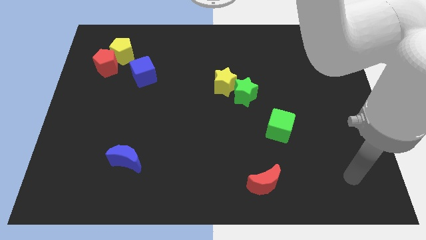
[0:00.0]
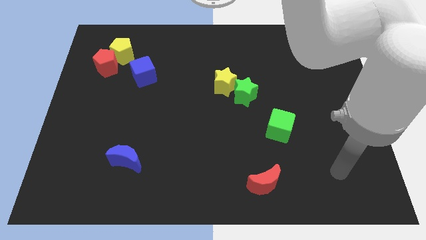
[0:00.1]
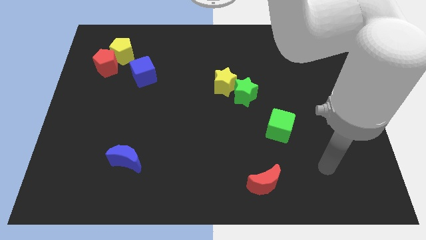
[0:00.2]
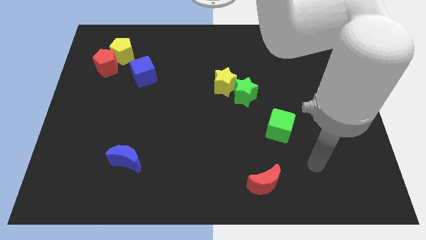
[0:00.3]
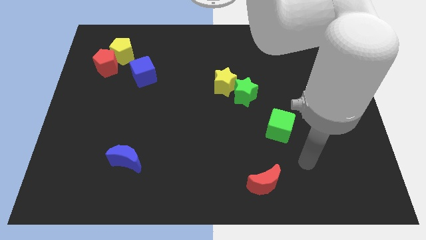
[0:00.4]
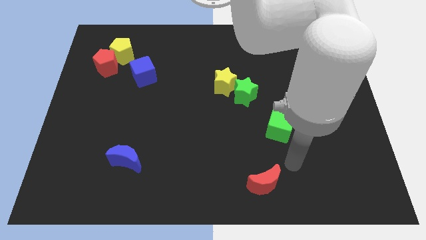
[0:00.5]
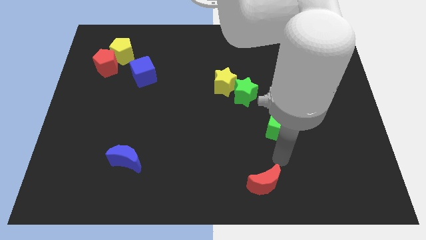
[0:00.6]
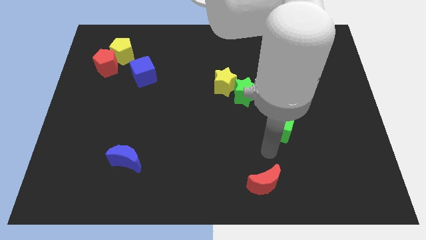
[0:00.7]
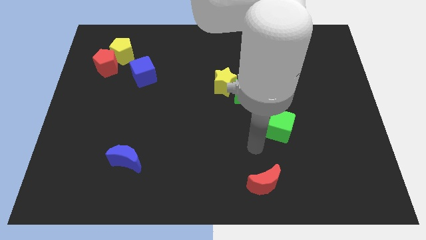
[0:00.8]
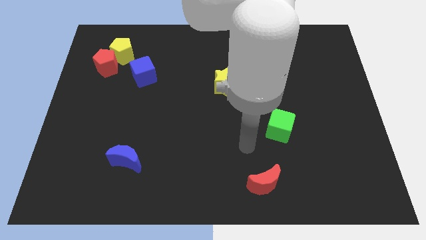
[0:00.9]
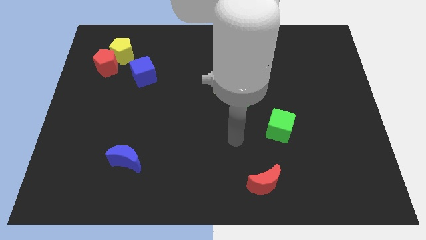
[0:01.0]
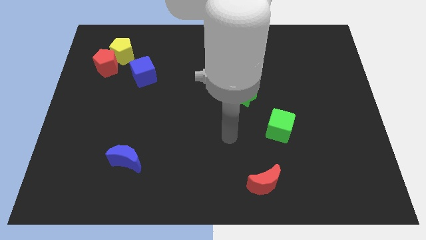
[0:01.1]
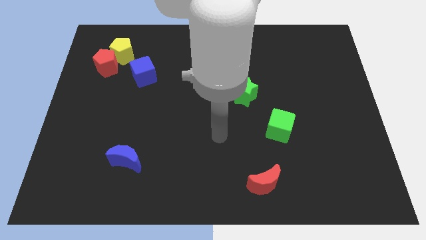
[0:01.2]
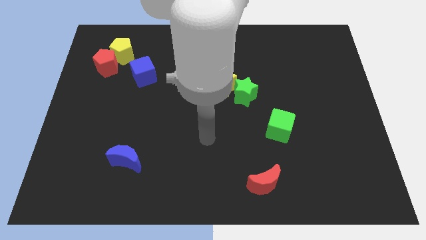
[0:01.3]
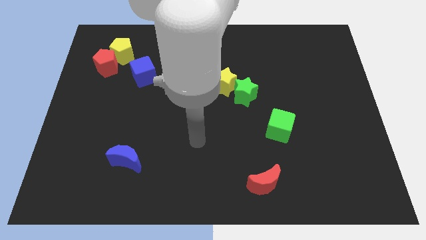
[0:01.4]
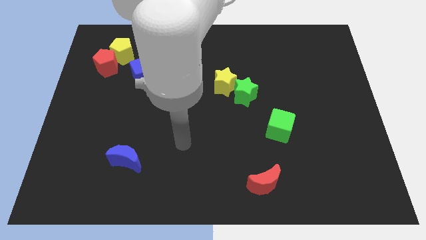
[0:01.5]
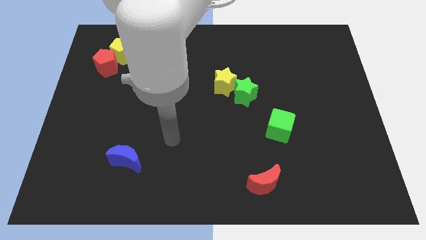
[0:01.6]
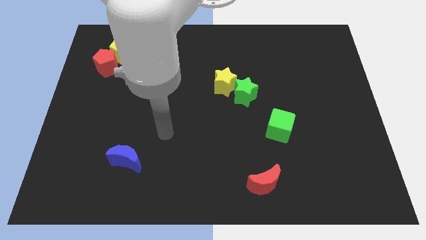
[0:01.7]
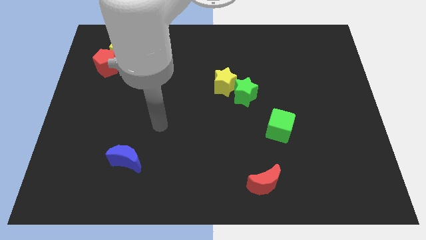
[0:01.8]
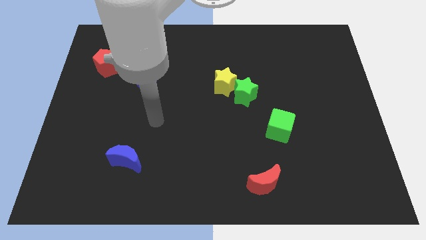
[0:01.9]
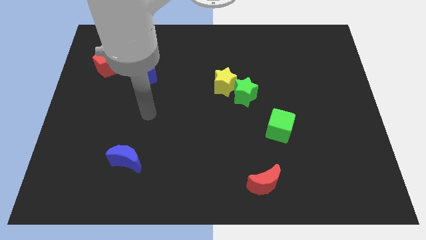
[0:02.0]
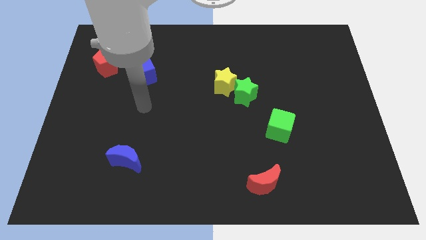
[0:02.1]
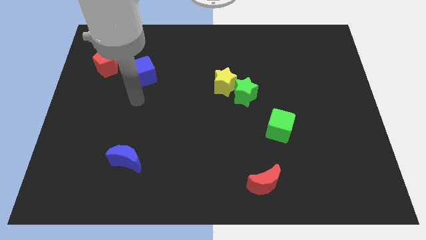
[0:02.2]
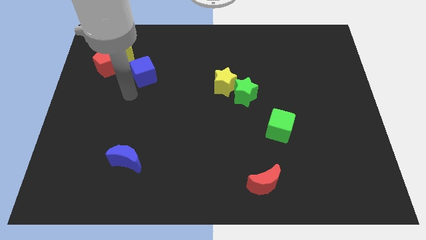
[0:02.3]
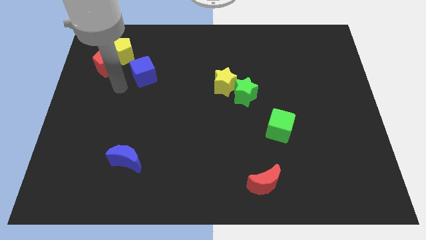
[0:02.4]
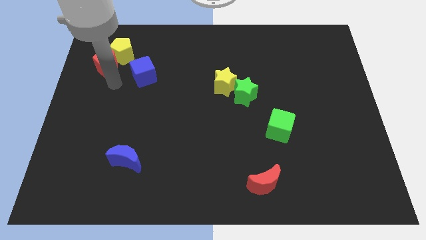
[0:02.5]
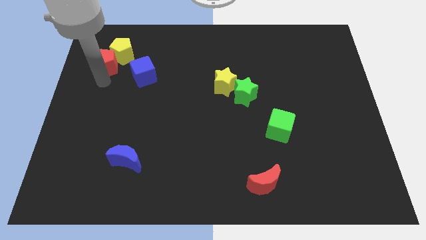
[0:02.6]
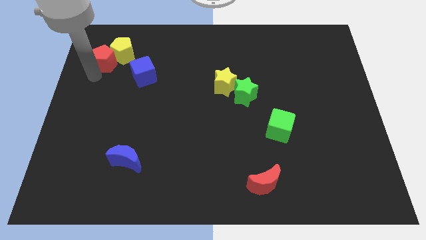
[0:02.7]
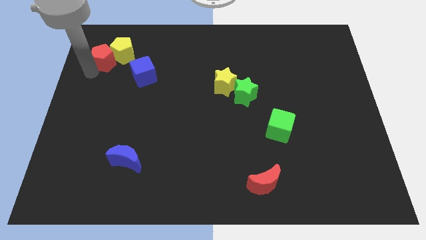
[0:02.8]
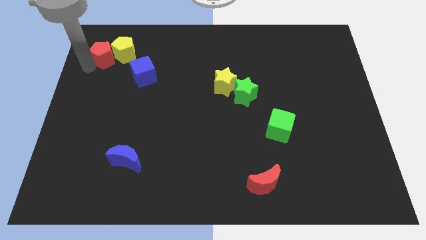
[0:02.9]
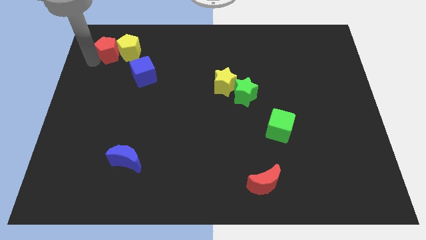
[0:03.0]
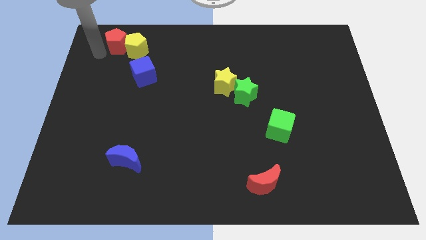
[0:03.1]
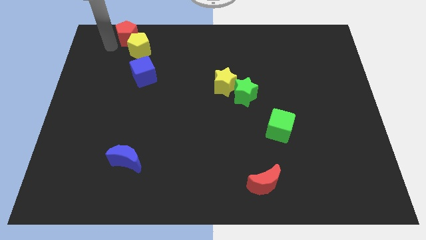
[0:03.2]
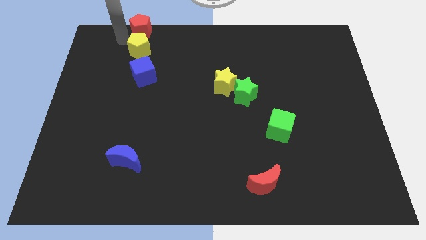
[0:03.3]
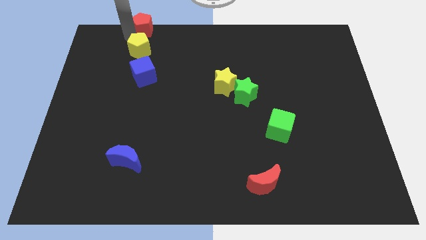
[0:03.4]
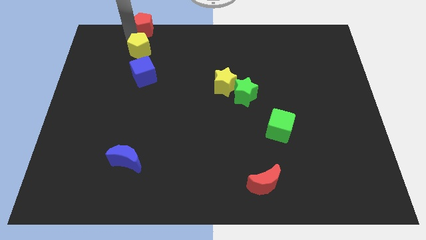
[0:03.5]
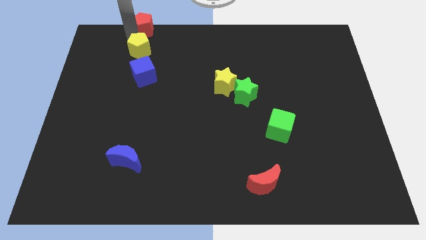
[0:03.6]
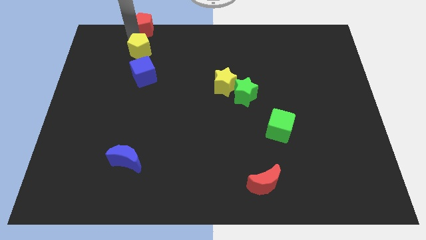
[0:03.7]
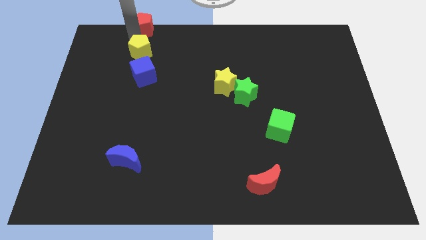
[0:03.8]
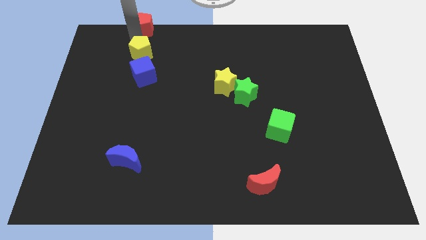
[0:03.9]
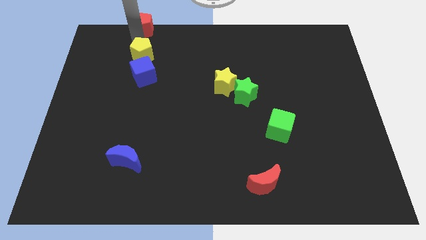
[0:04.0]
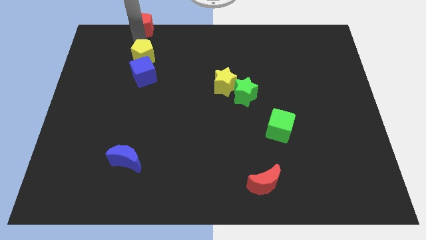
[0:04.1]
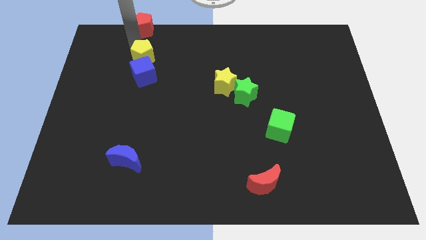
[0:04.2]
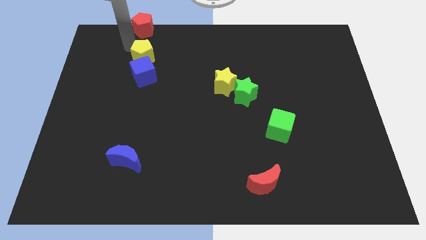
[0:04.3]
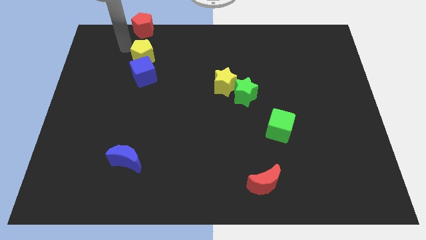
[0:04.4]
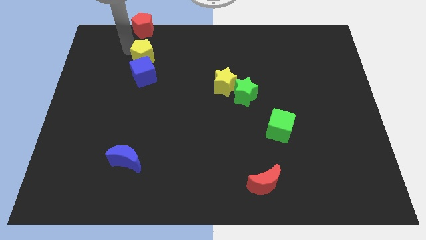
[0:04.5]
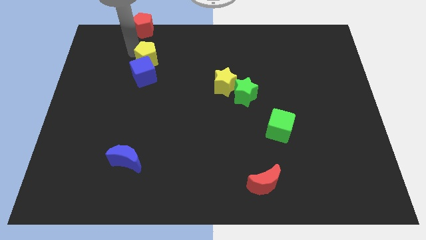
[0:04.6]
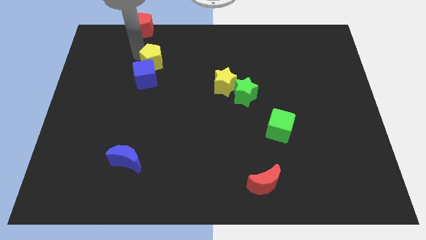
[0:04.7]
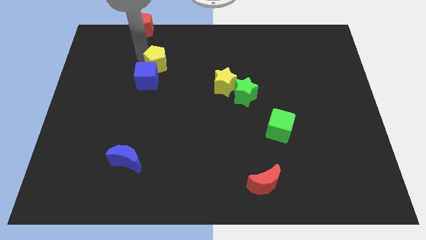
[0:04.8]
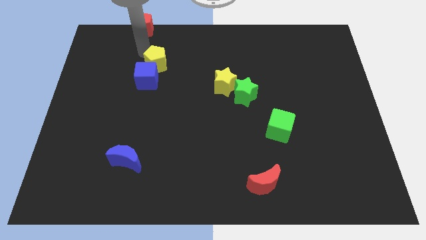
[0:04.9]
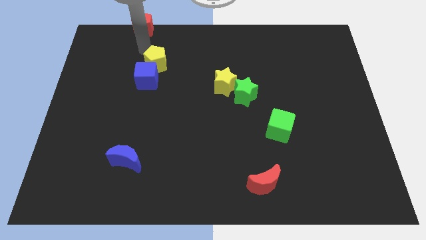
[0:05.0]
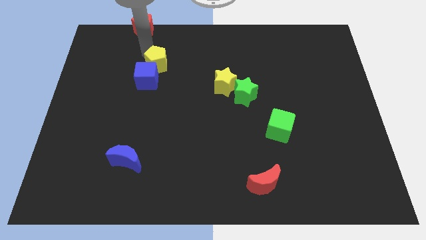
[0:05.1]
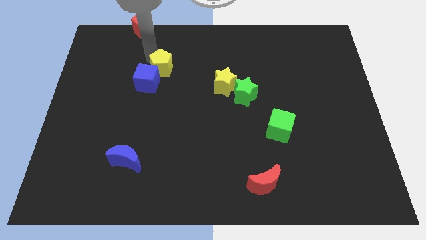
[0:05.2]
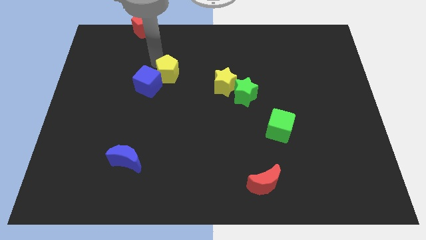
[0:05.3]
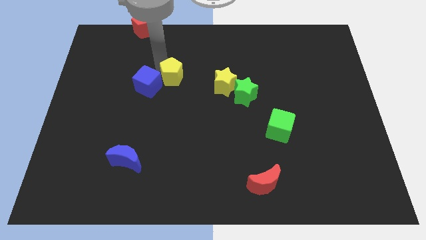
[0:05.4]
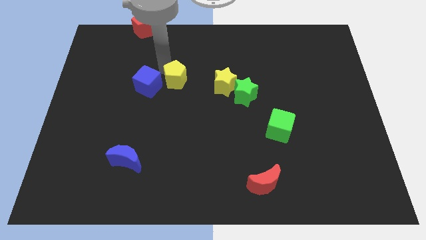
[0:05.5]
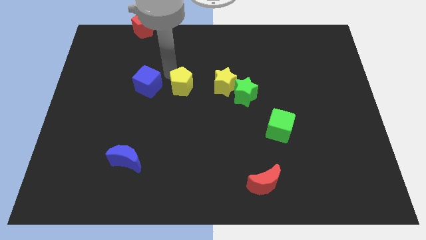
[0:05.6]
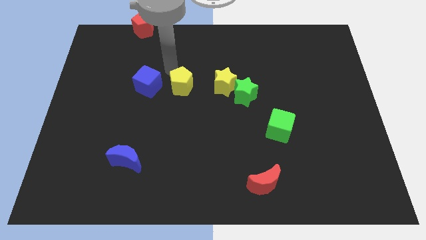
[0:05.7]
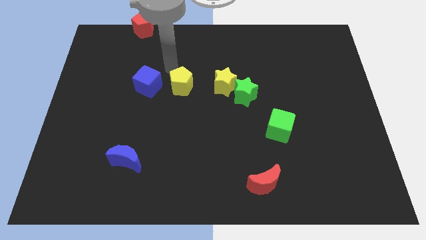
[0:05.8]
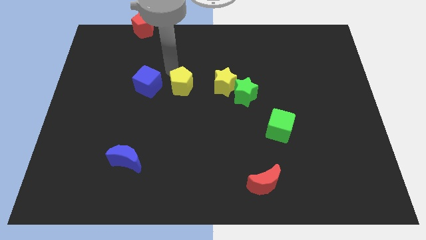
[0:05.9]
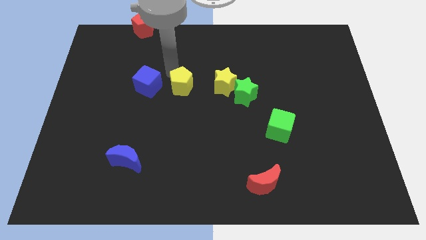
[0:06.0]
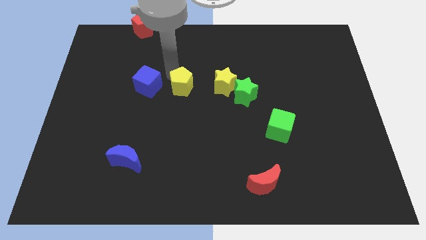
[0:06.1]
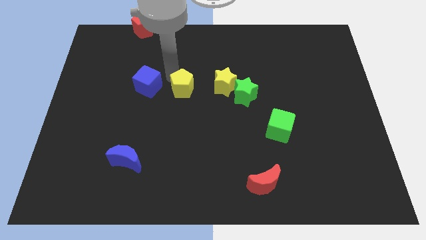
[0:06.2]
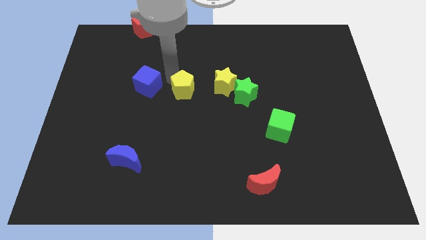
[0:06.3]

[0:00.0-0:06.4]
slide the yellow pentagon diagonally down and to the right

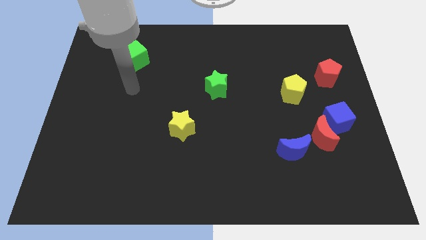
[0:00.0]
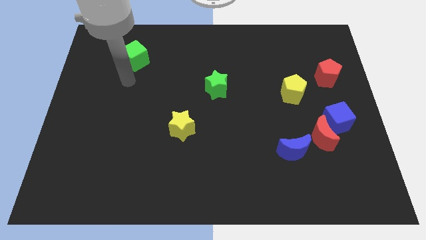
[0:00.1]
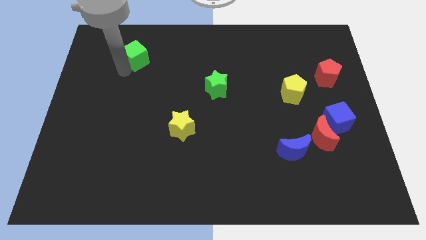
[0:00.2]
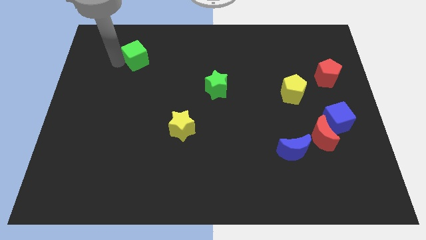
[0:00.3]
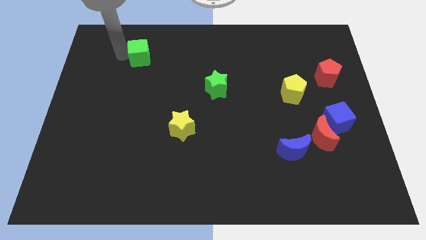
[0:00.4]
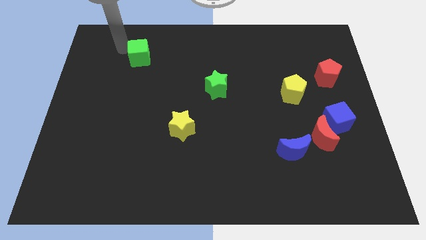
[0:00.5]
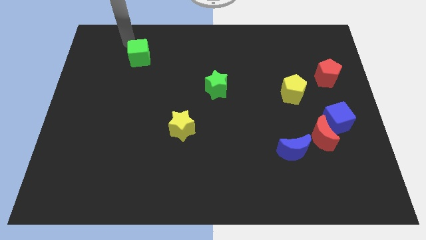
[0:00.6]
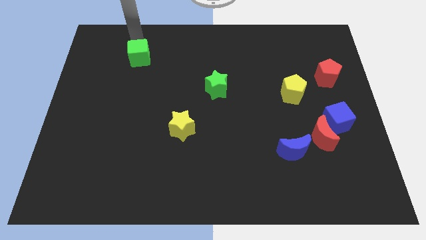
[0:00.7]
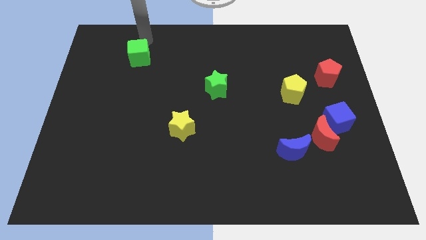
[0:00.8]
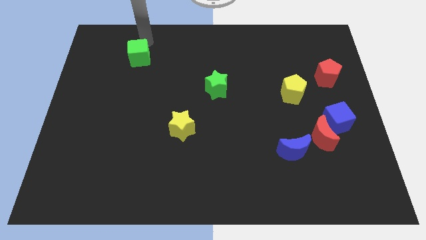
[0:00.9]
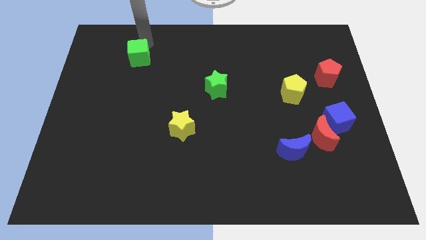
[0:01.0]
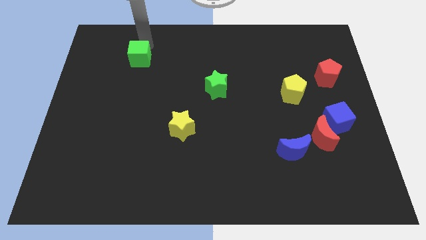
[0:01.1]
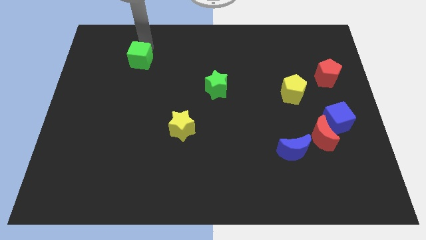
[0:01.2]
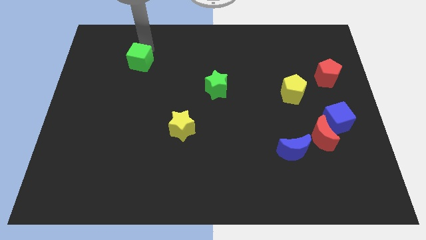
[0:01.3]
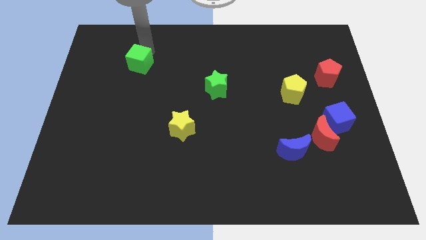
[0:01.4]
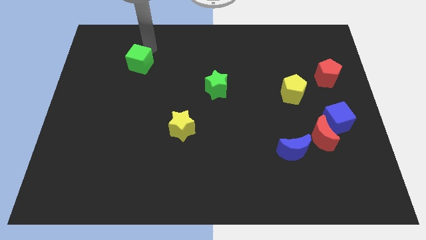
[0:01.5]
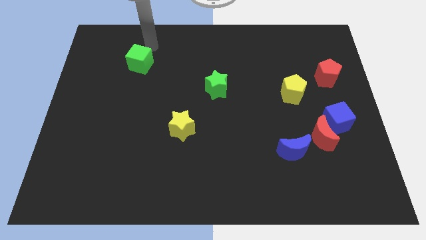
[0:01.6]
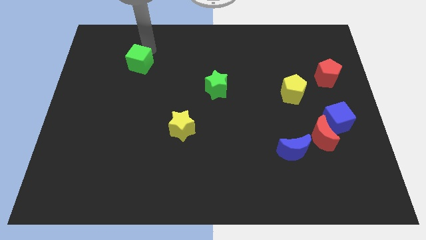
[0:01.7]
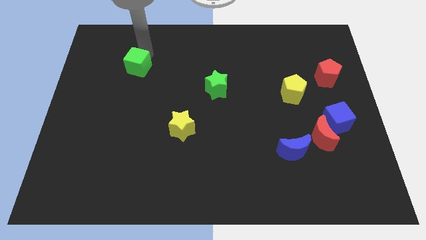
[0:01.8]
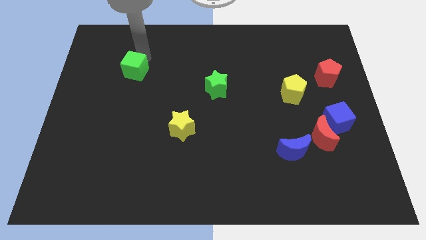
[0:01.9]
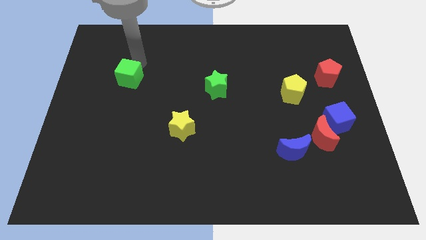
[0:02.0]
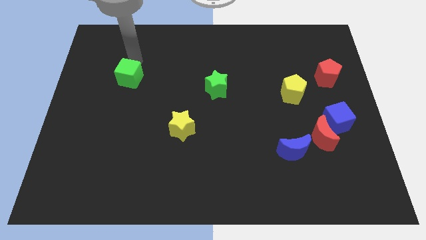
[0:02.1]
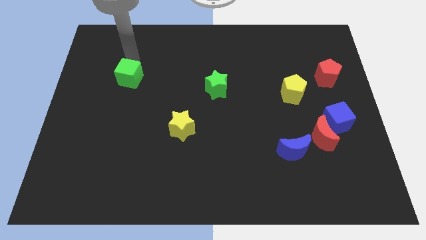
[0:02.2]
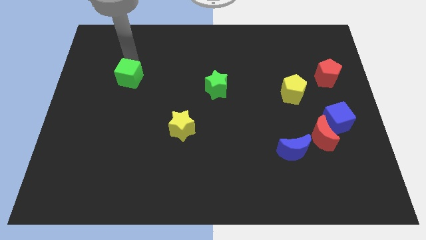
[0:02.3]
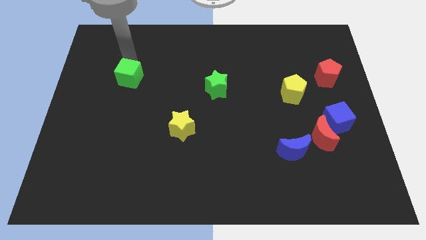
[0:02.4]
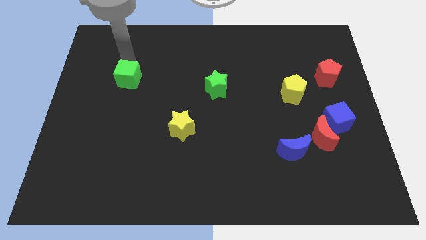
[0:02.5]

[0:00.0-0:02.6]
slightly move the green cube downwards
